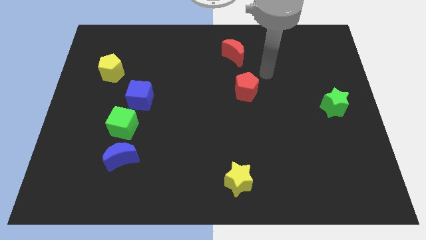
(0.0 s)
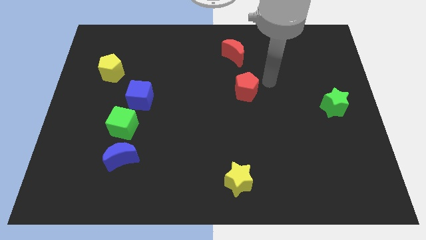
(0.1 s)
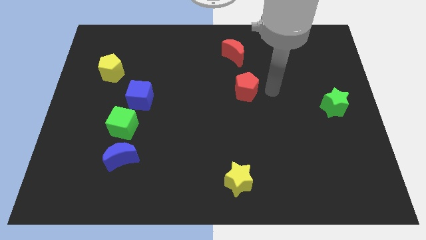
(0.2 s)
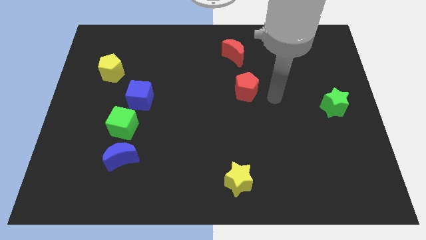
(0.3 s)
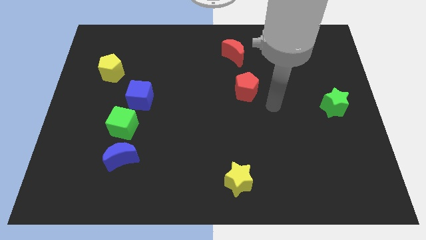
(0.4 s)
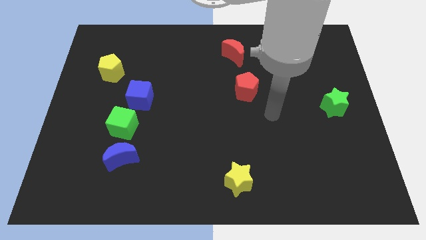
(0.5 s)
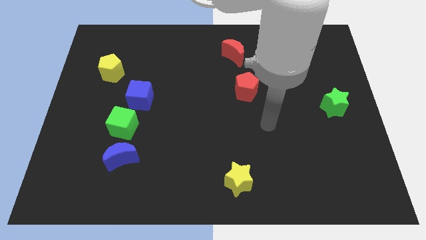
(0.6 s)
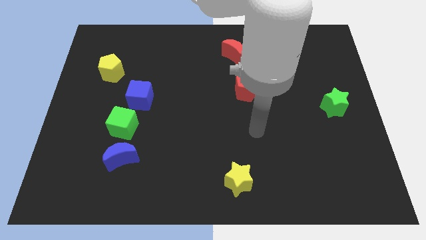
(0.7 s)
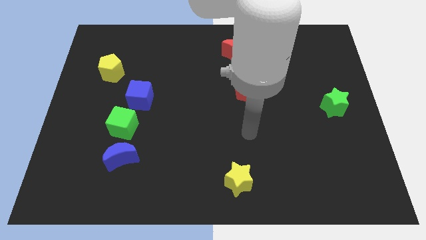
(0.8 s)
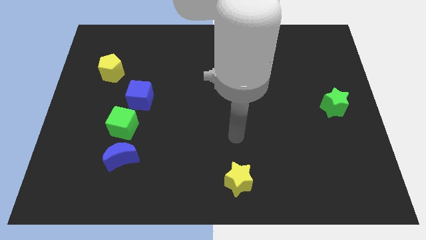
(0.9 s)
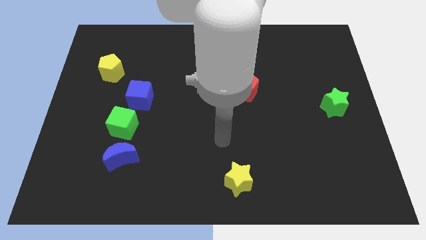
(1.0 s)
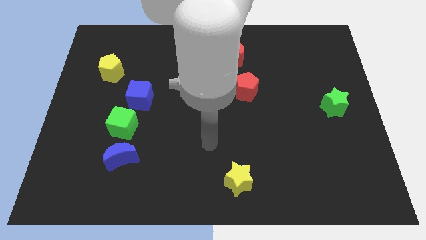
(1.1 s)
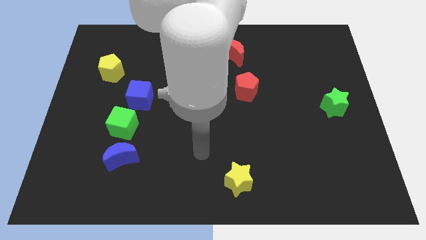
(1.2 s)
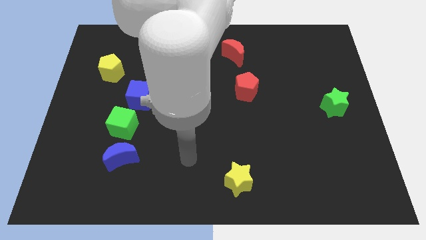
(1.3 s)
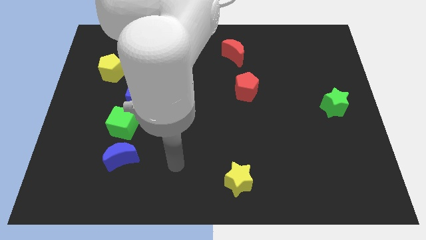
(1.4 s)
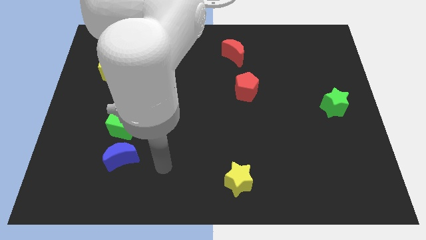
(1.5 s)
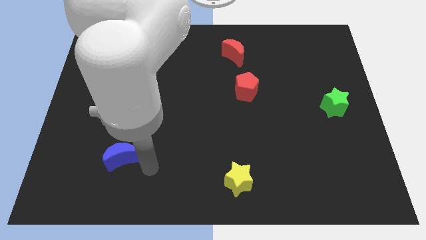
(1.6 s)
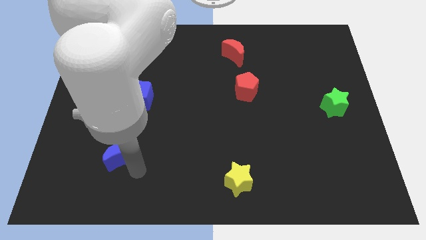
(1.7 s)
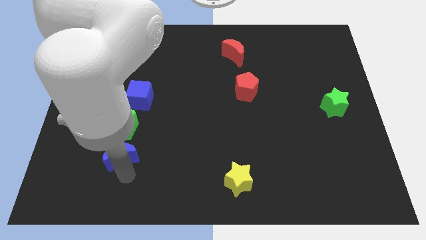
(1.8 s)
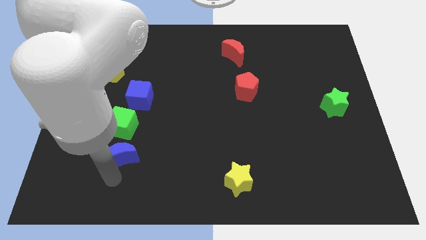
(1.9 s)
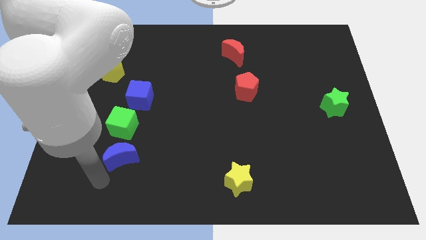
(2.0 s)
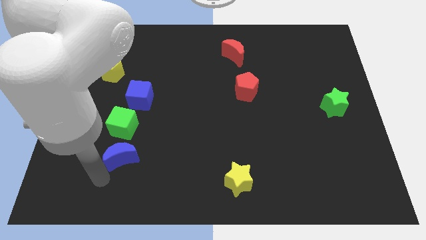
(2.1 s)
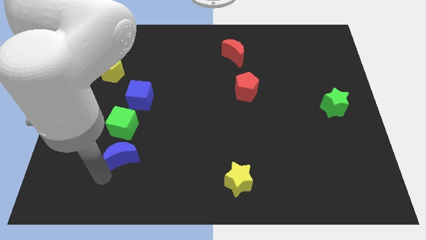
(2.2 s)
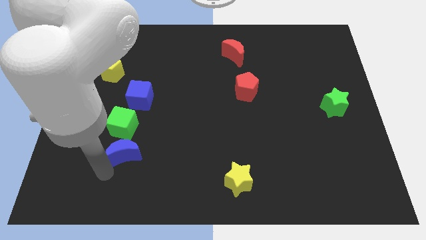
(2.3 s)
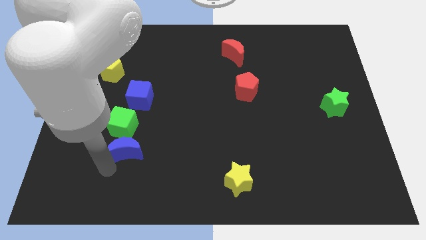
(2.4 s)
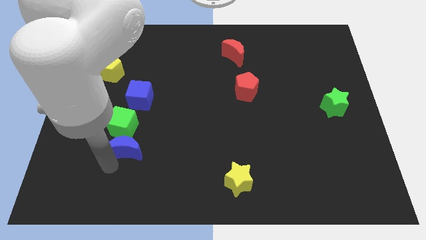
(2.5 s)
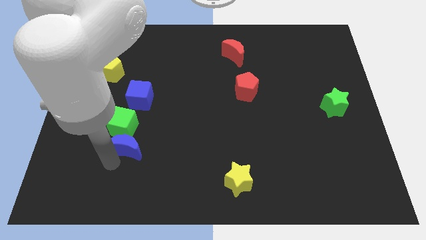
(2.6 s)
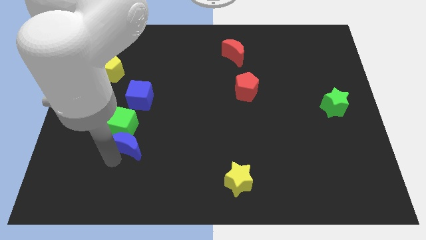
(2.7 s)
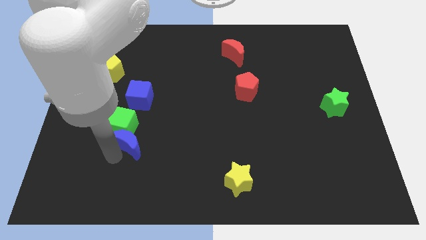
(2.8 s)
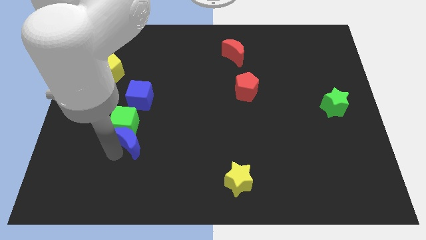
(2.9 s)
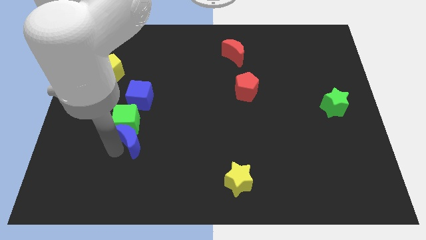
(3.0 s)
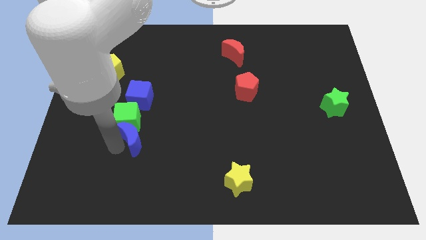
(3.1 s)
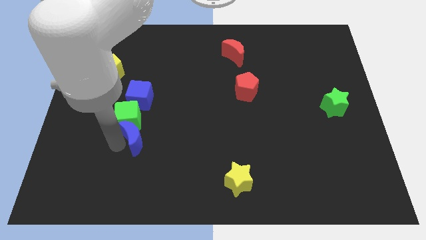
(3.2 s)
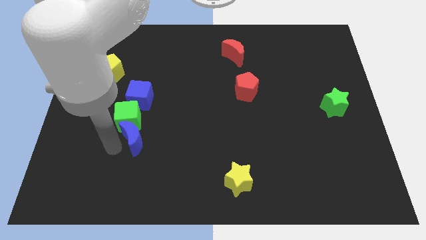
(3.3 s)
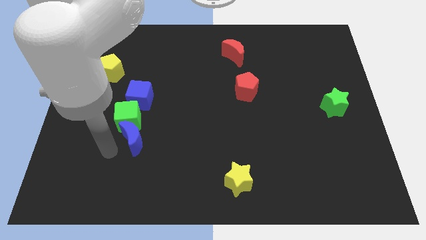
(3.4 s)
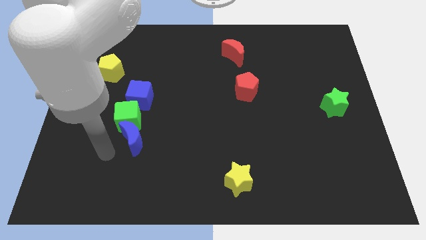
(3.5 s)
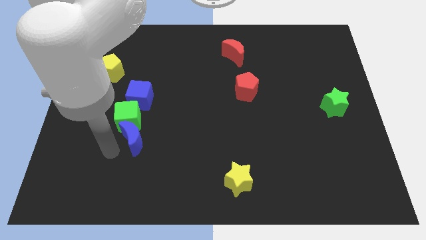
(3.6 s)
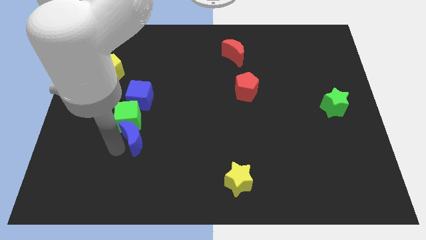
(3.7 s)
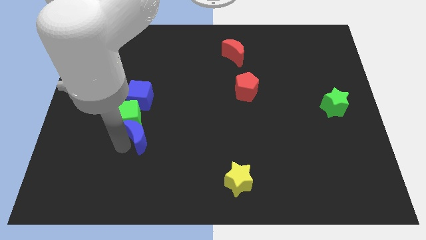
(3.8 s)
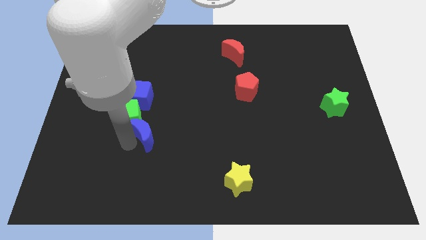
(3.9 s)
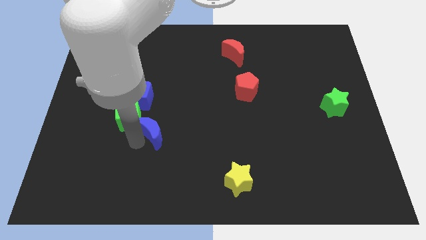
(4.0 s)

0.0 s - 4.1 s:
move the blue moon to the bottom right side of the blue cube

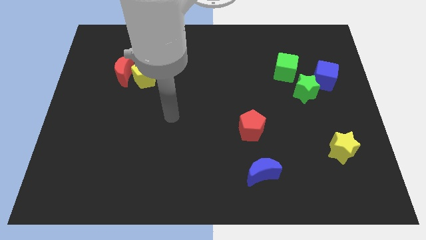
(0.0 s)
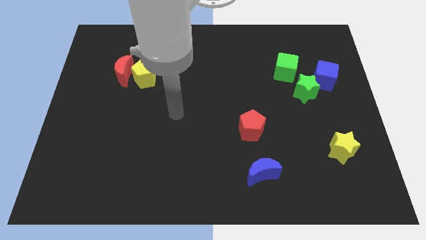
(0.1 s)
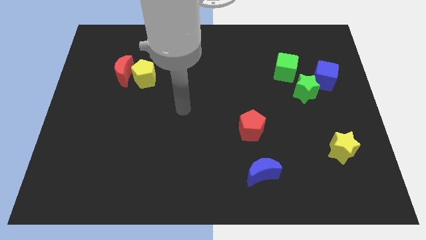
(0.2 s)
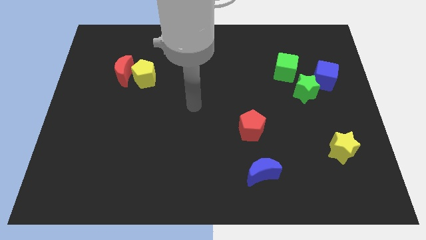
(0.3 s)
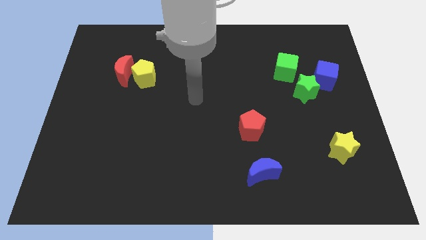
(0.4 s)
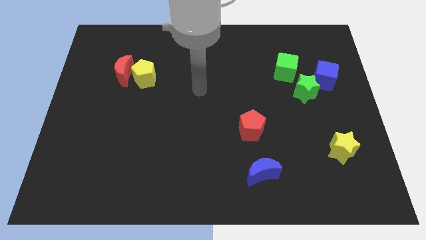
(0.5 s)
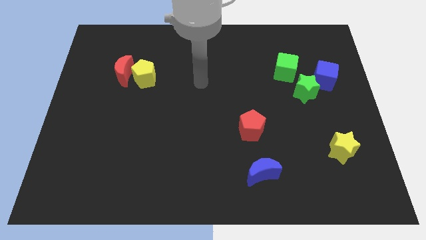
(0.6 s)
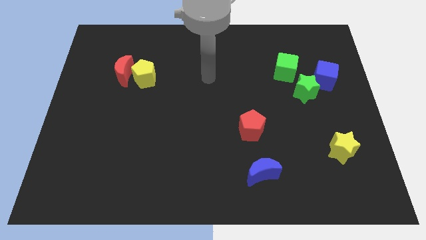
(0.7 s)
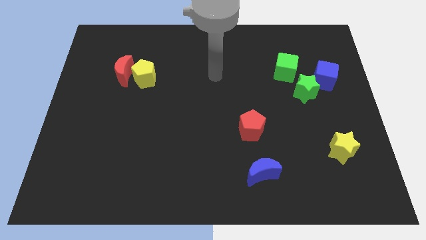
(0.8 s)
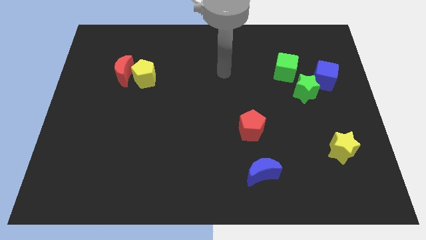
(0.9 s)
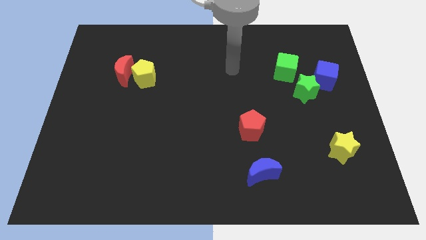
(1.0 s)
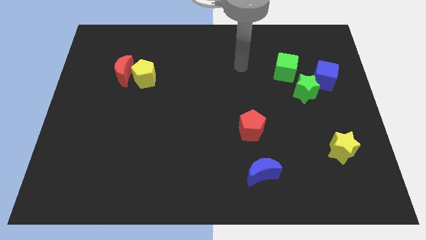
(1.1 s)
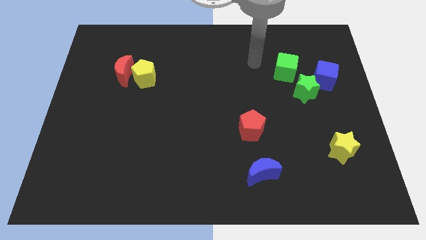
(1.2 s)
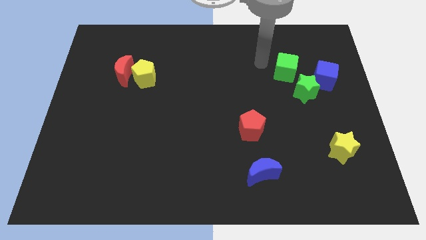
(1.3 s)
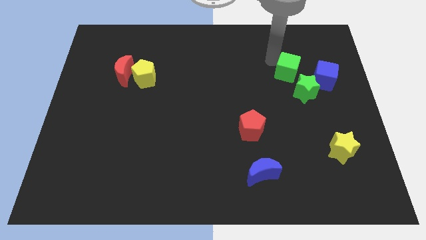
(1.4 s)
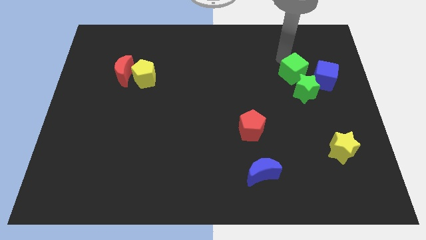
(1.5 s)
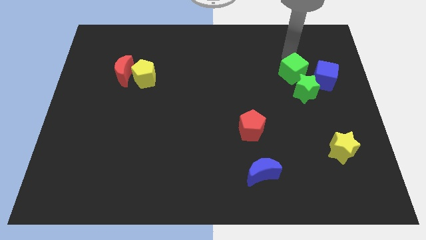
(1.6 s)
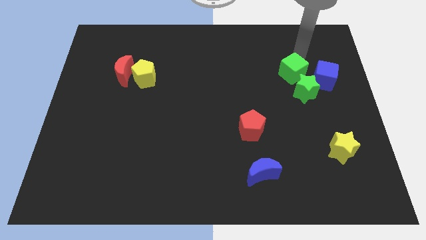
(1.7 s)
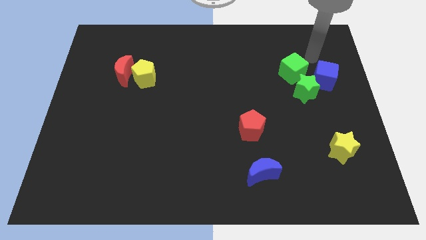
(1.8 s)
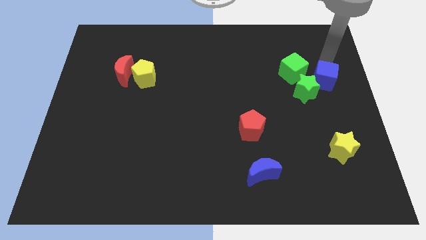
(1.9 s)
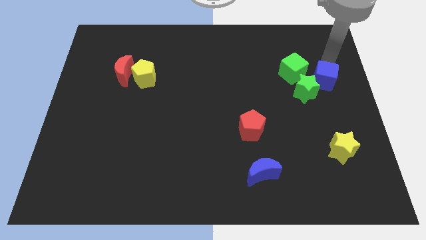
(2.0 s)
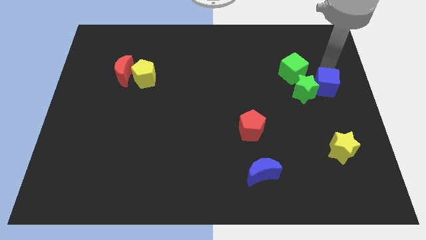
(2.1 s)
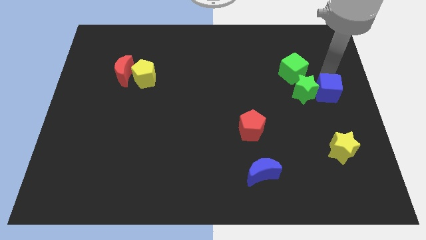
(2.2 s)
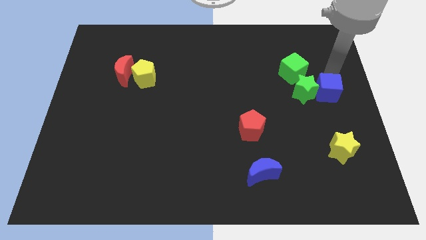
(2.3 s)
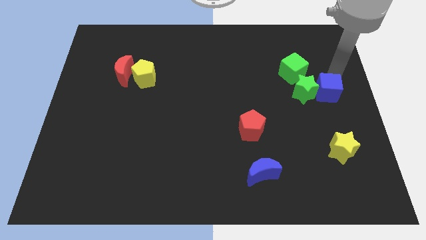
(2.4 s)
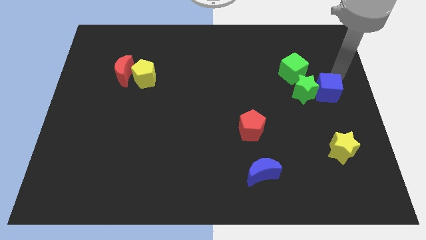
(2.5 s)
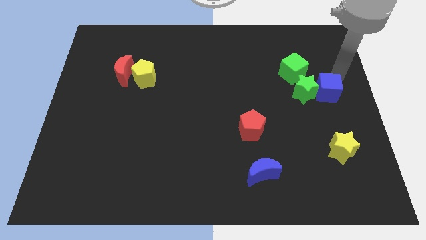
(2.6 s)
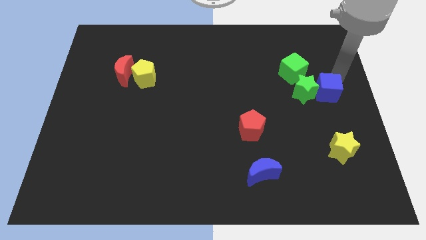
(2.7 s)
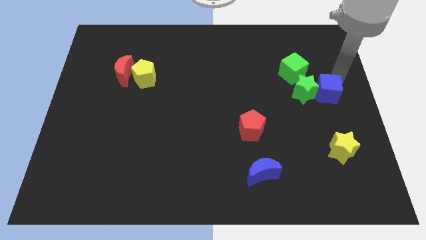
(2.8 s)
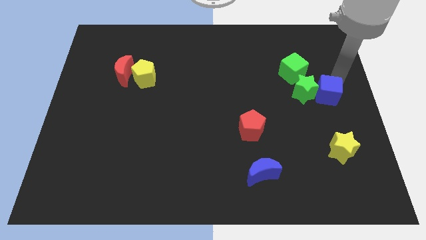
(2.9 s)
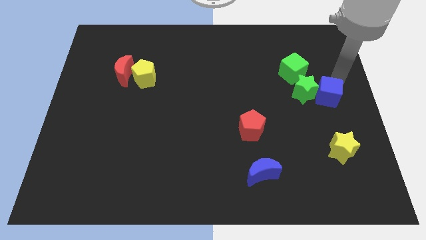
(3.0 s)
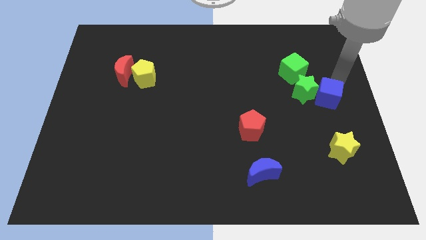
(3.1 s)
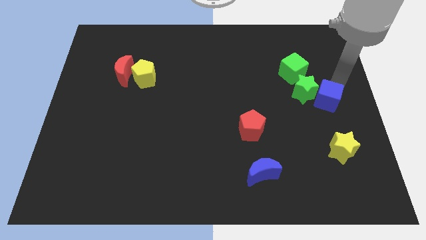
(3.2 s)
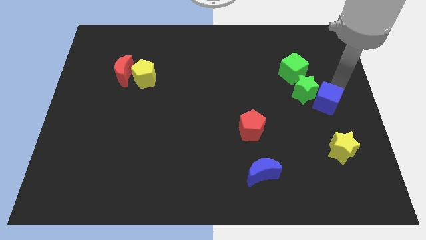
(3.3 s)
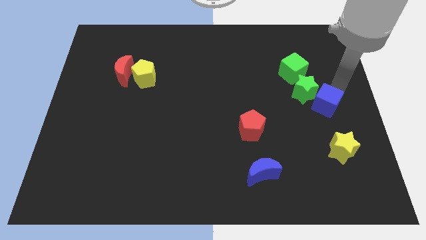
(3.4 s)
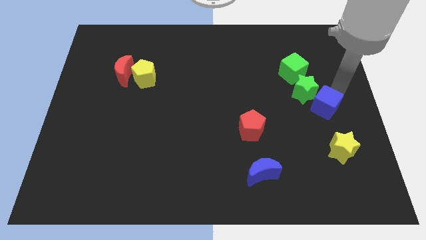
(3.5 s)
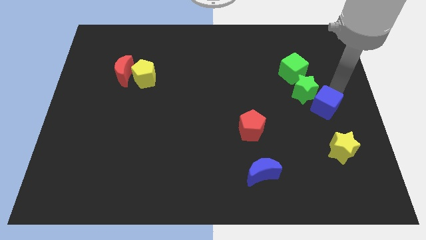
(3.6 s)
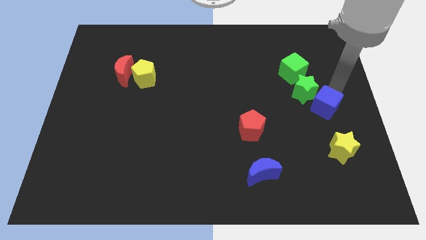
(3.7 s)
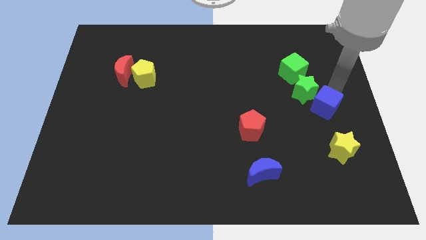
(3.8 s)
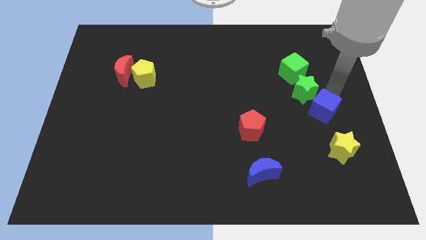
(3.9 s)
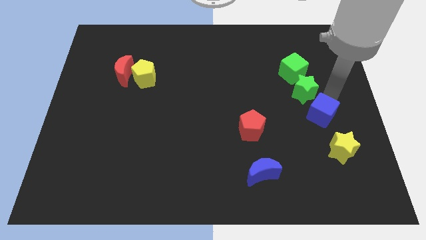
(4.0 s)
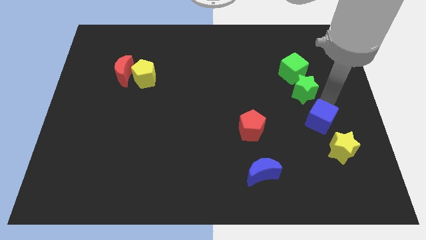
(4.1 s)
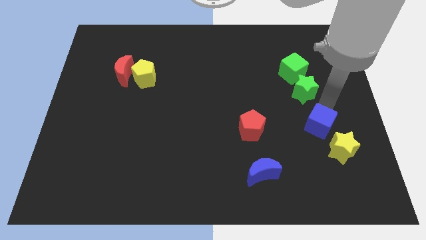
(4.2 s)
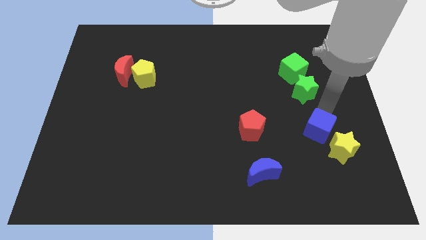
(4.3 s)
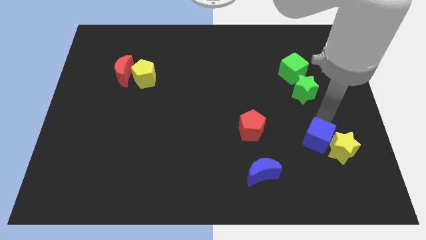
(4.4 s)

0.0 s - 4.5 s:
put the blue cube just left of the yellow star
